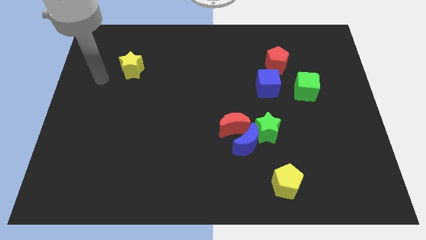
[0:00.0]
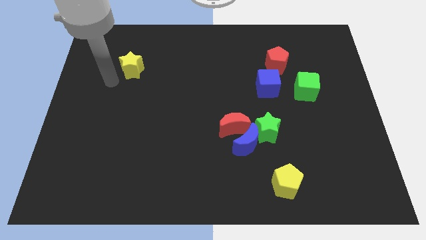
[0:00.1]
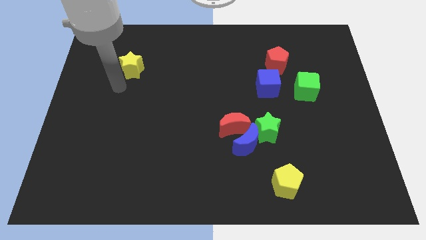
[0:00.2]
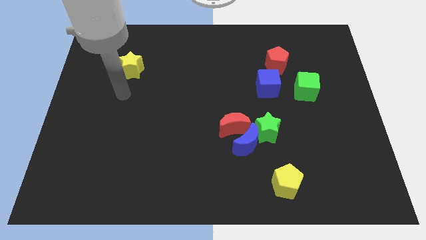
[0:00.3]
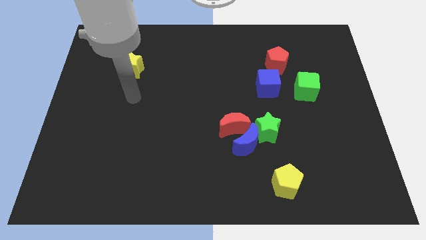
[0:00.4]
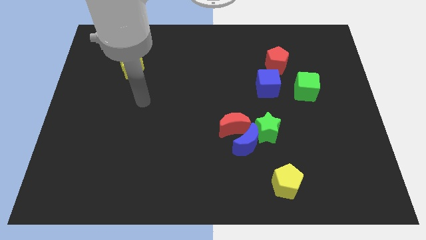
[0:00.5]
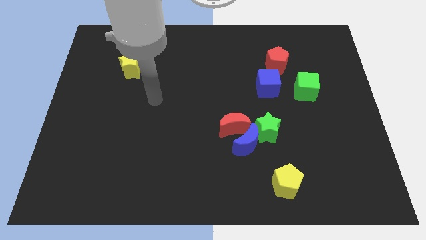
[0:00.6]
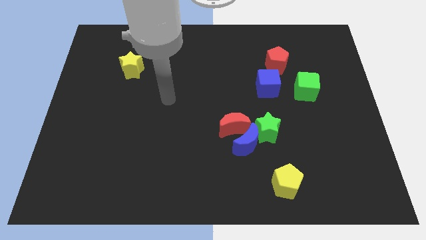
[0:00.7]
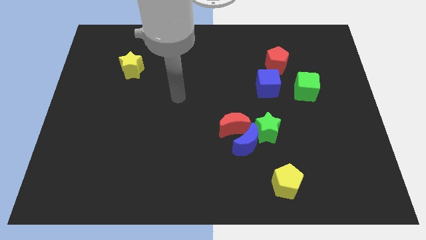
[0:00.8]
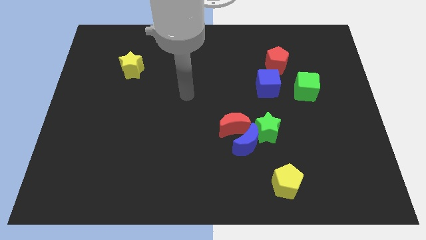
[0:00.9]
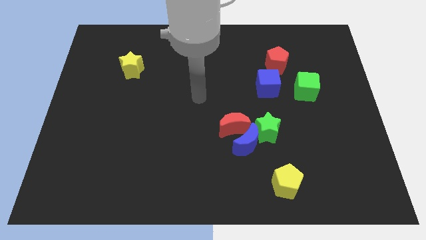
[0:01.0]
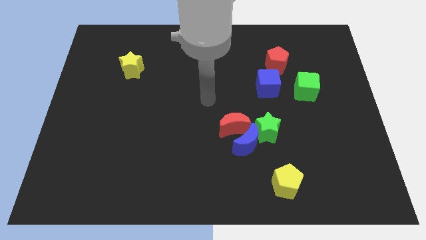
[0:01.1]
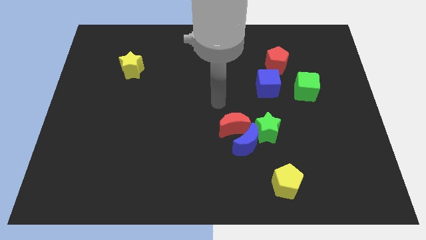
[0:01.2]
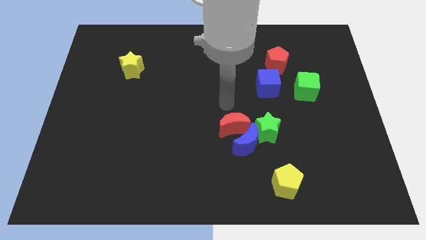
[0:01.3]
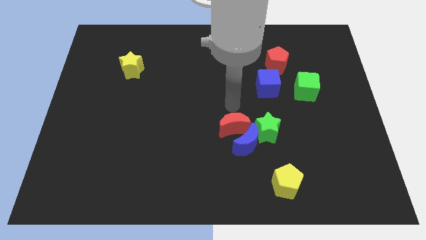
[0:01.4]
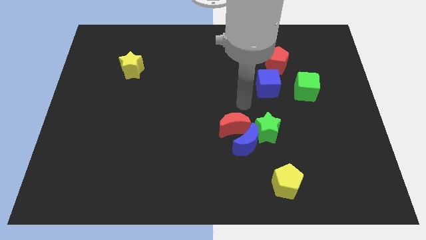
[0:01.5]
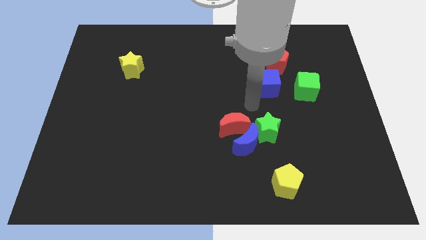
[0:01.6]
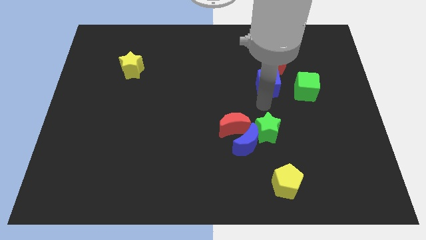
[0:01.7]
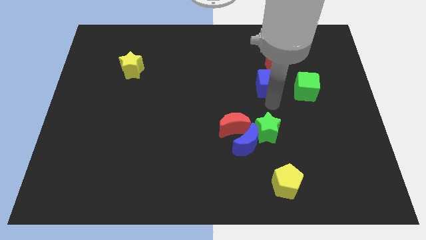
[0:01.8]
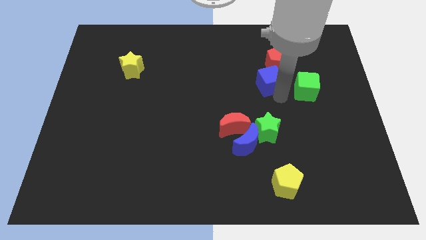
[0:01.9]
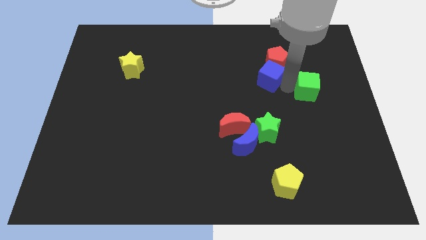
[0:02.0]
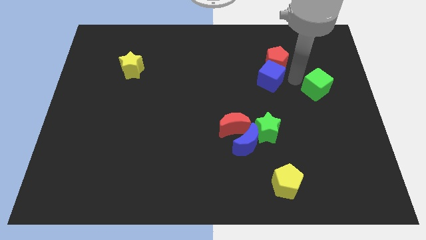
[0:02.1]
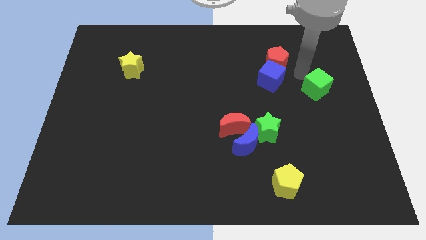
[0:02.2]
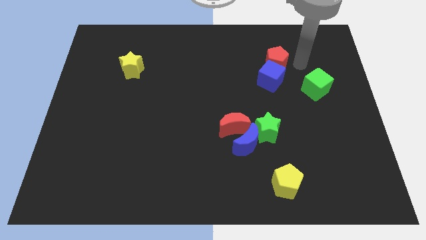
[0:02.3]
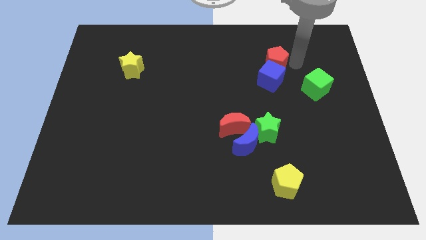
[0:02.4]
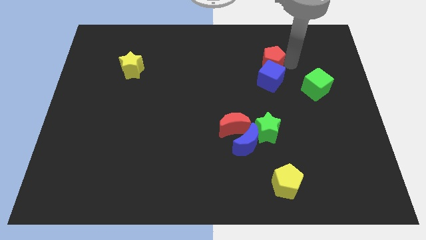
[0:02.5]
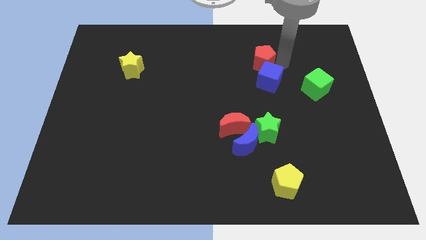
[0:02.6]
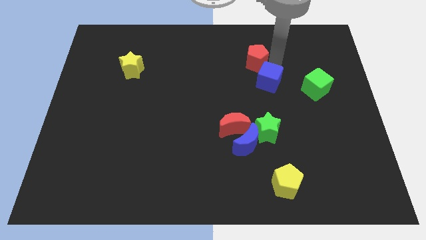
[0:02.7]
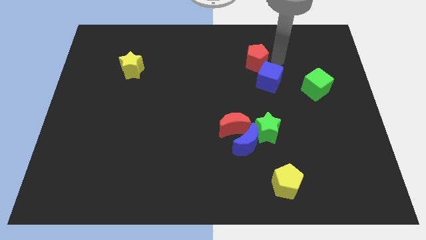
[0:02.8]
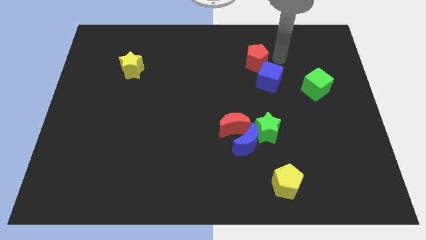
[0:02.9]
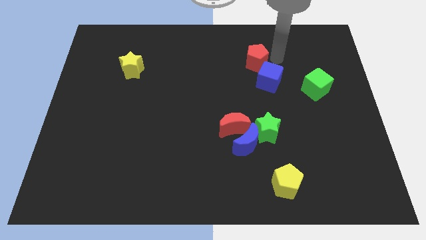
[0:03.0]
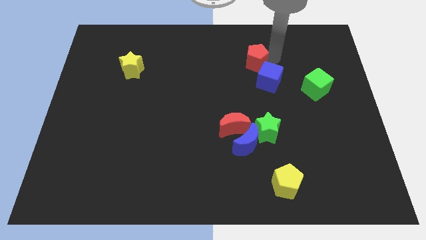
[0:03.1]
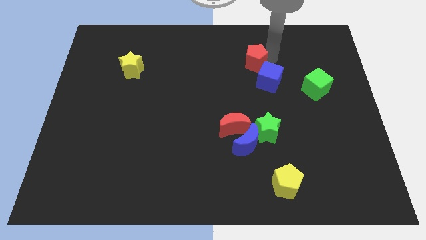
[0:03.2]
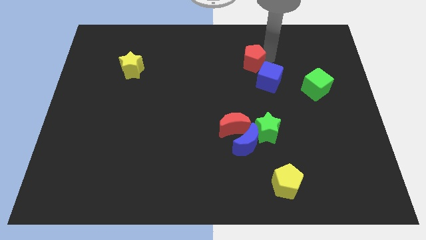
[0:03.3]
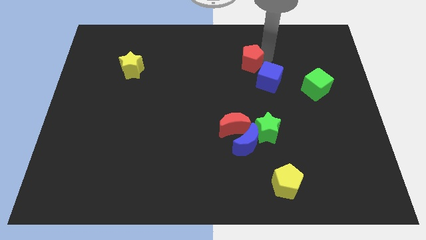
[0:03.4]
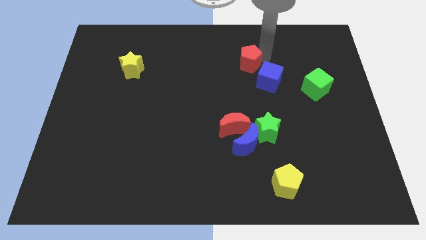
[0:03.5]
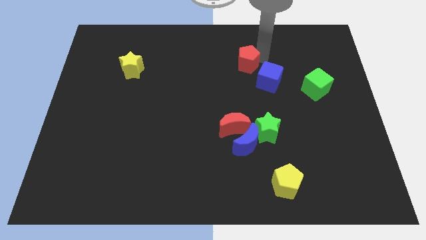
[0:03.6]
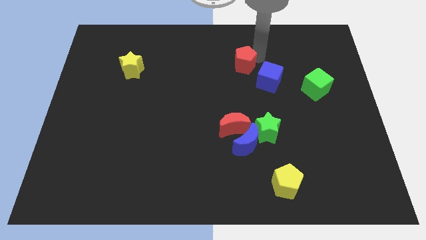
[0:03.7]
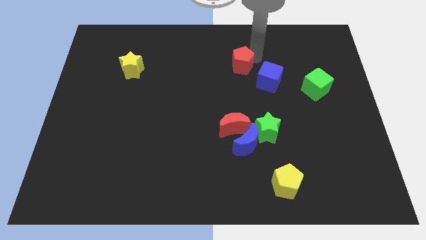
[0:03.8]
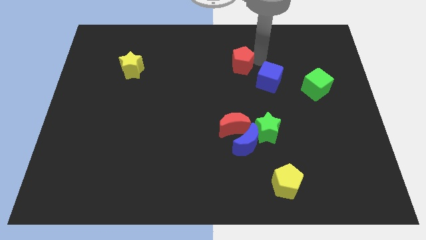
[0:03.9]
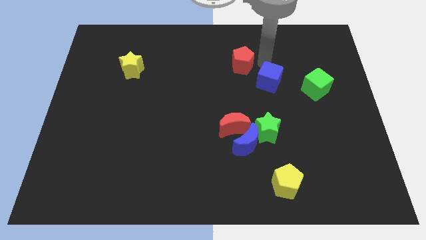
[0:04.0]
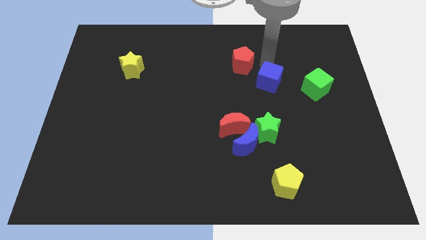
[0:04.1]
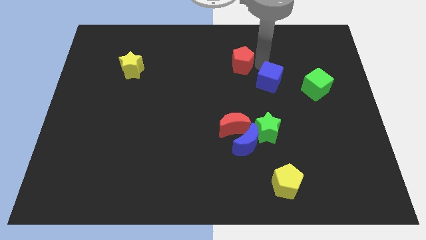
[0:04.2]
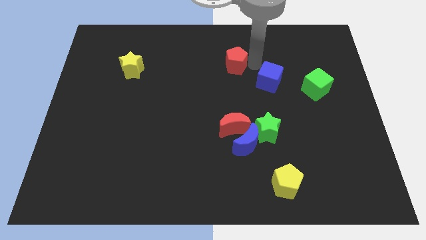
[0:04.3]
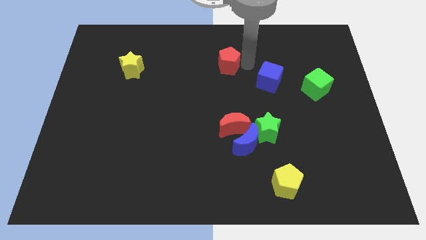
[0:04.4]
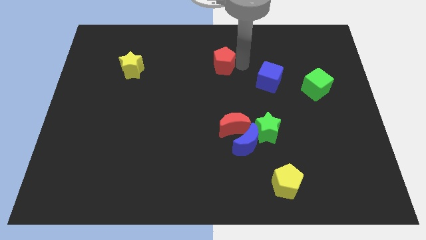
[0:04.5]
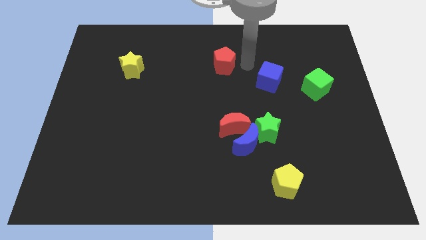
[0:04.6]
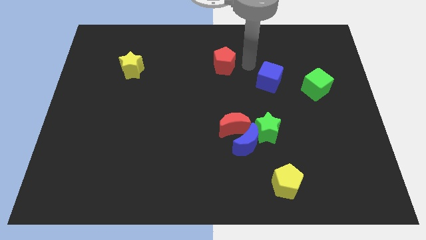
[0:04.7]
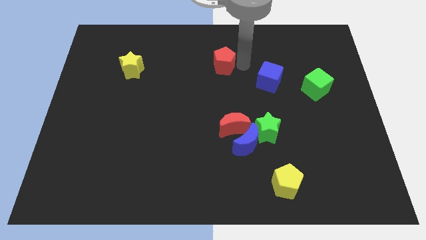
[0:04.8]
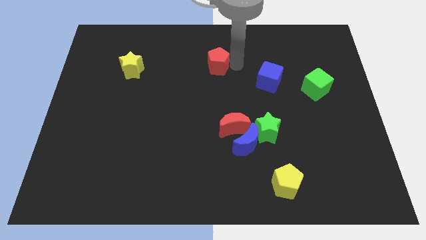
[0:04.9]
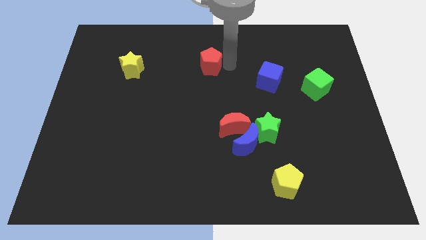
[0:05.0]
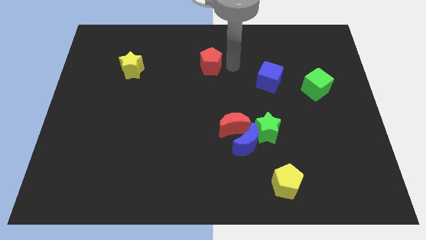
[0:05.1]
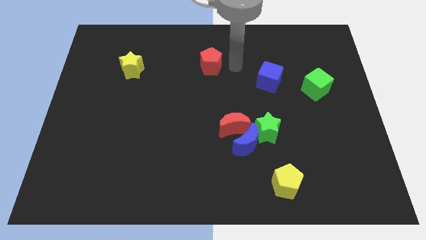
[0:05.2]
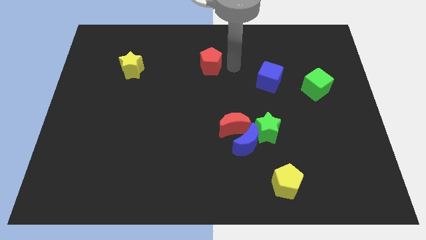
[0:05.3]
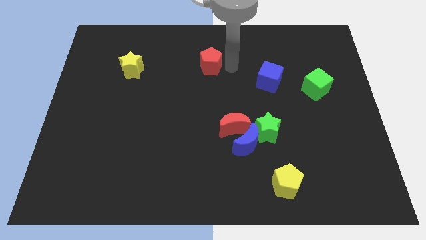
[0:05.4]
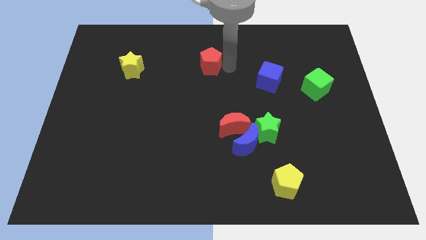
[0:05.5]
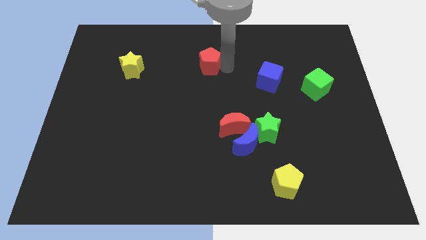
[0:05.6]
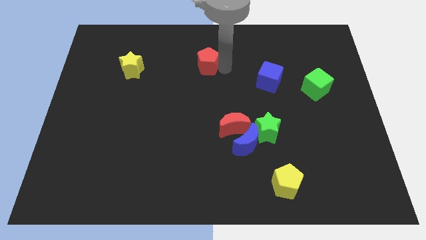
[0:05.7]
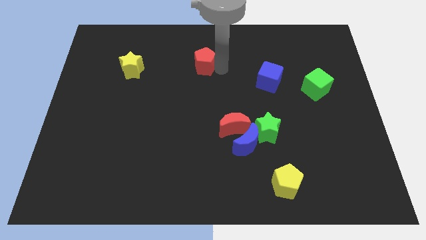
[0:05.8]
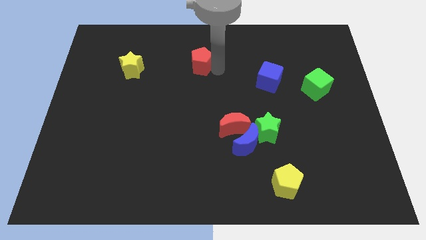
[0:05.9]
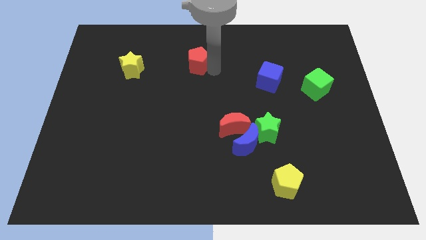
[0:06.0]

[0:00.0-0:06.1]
slide the red pentagon to the left

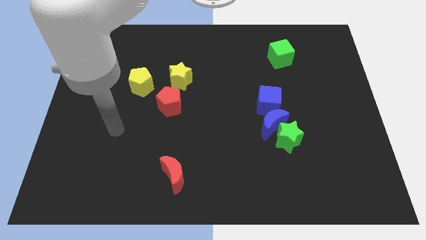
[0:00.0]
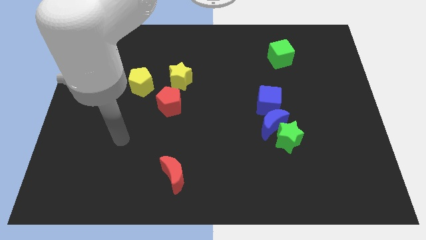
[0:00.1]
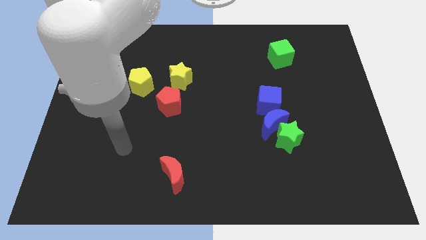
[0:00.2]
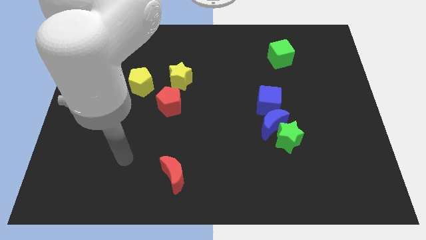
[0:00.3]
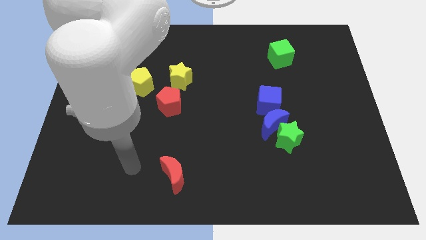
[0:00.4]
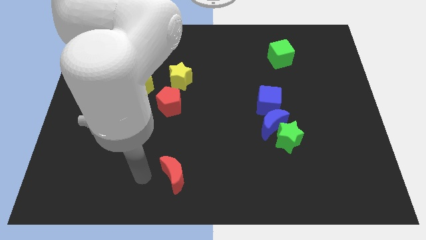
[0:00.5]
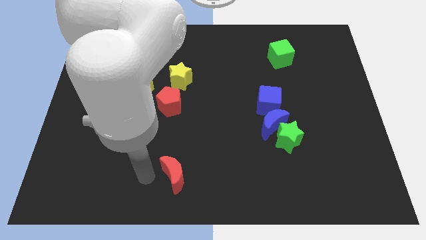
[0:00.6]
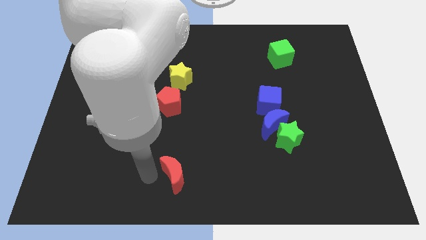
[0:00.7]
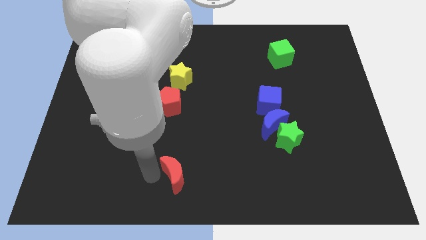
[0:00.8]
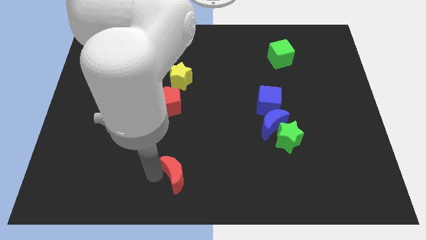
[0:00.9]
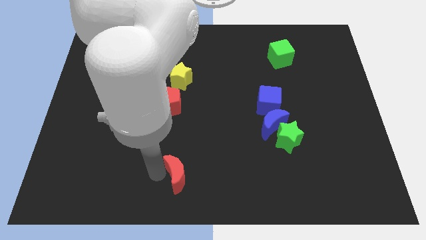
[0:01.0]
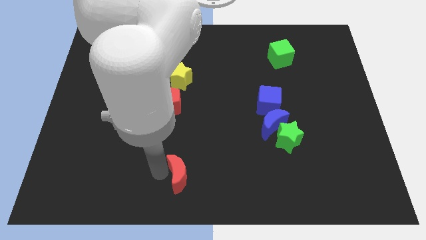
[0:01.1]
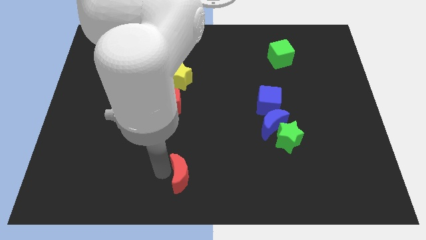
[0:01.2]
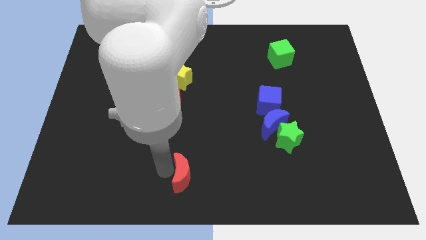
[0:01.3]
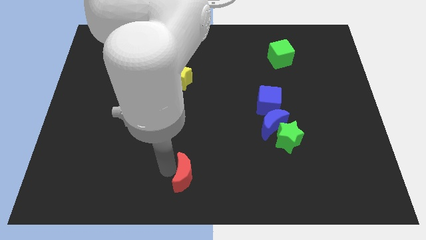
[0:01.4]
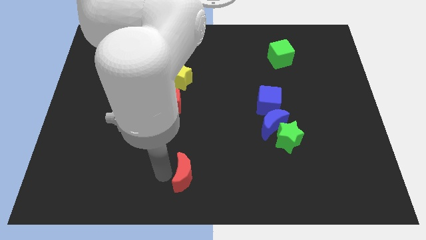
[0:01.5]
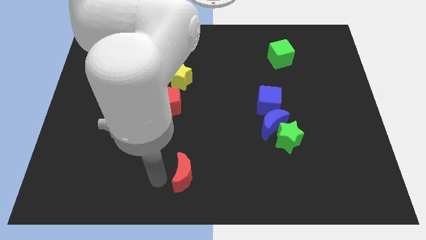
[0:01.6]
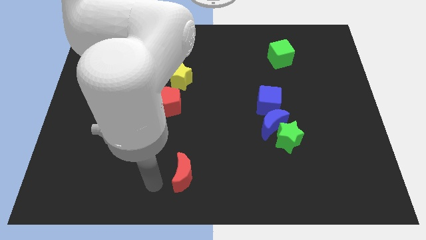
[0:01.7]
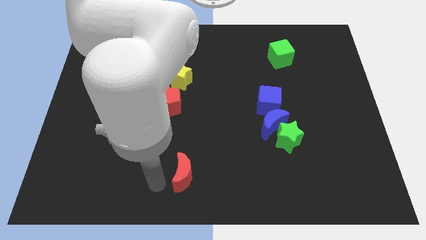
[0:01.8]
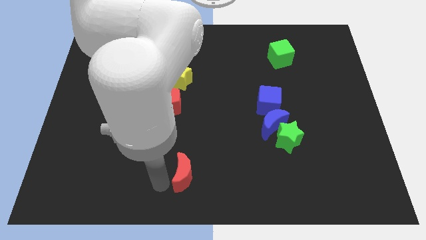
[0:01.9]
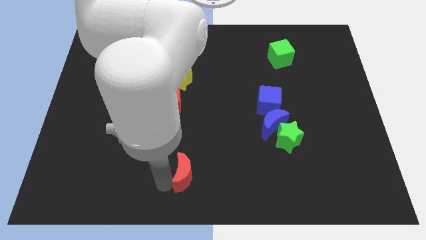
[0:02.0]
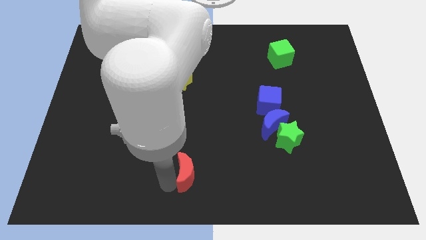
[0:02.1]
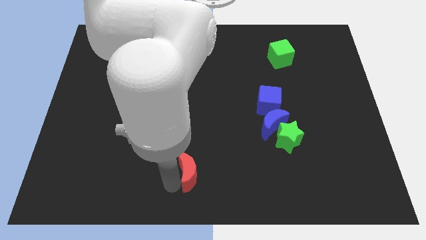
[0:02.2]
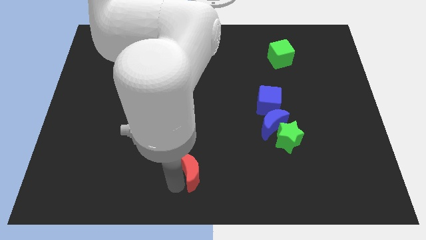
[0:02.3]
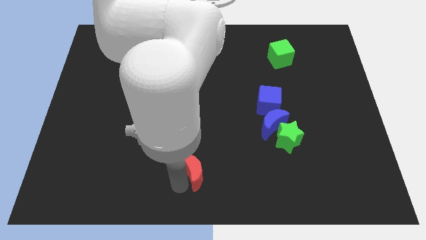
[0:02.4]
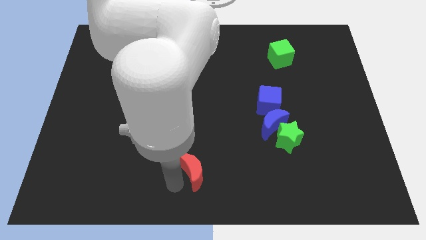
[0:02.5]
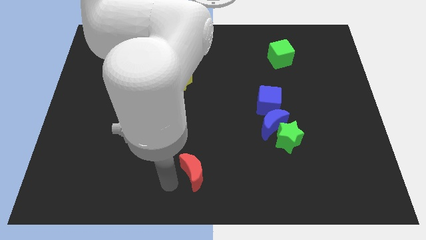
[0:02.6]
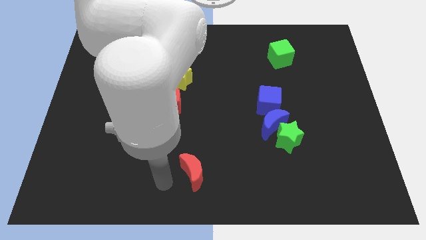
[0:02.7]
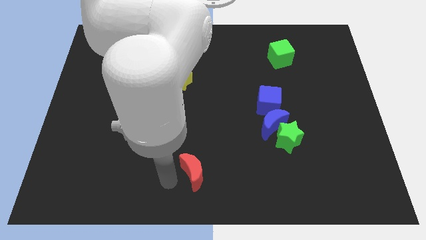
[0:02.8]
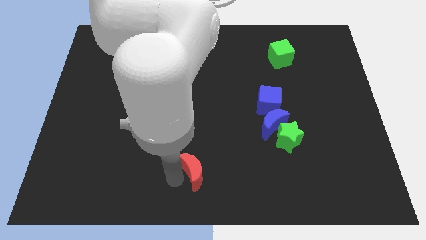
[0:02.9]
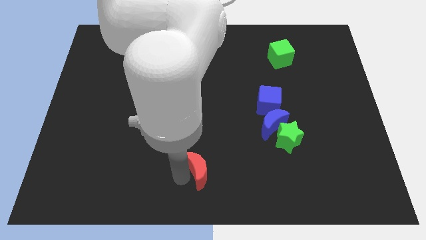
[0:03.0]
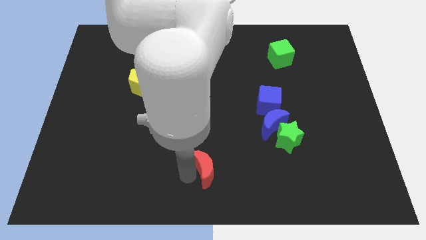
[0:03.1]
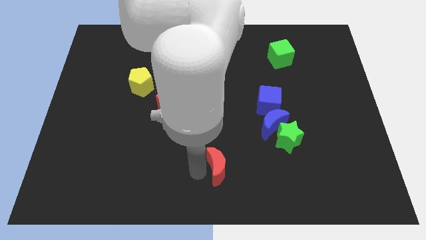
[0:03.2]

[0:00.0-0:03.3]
move the red moon a little bit to the right
